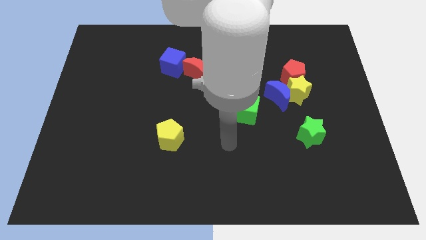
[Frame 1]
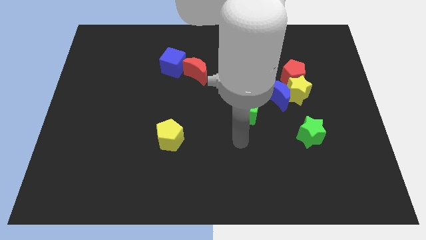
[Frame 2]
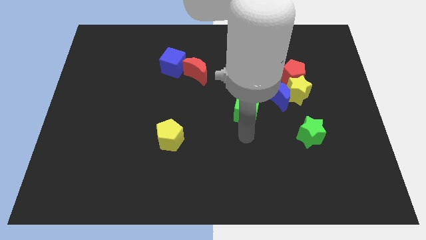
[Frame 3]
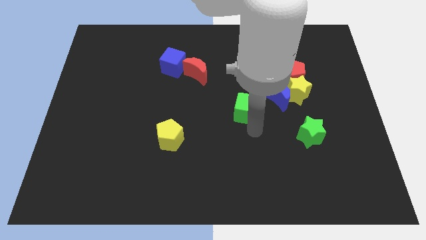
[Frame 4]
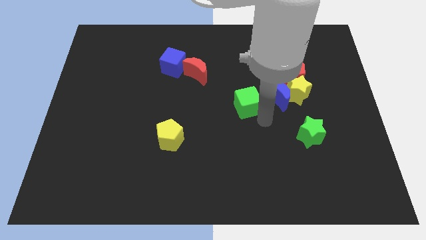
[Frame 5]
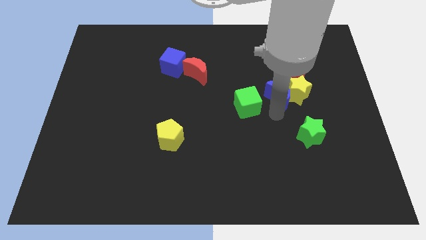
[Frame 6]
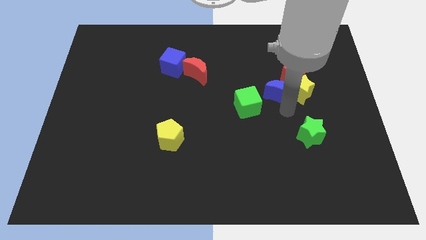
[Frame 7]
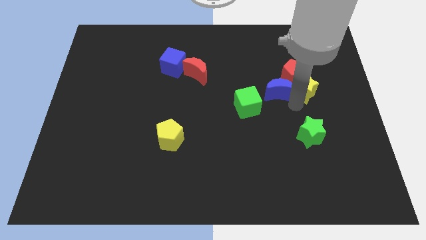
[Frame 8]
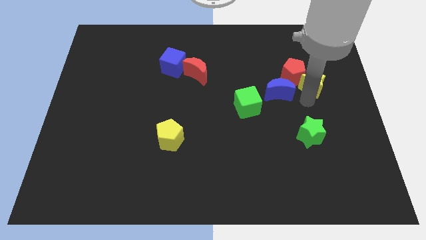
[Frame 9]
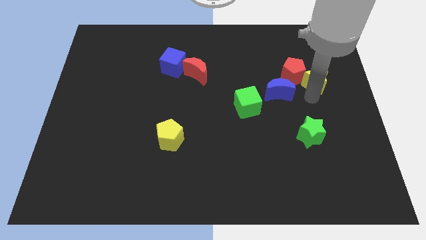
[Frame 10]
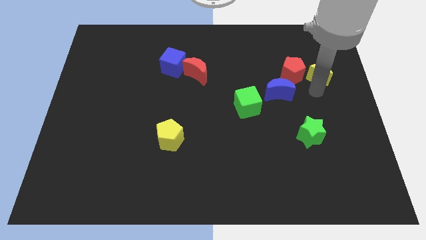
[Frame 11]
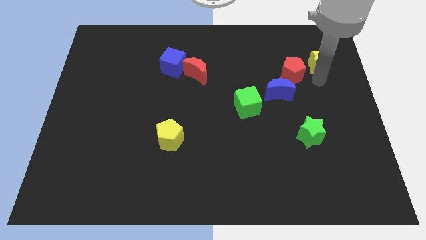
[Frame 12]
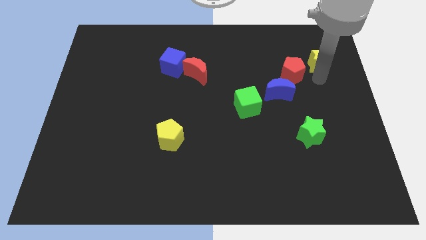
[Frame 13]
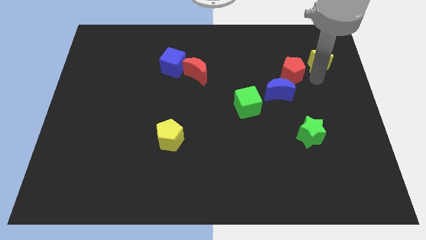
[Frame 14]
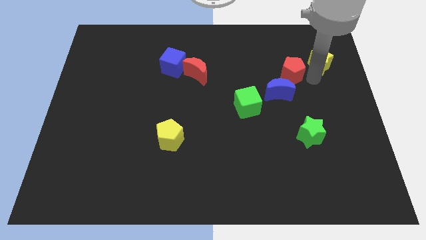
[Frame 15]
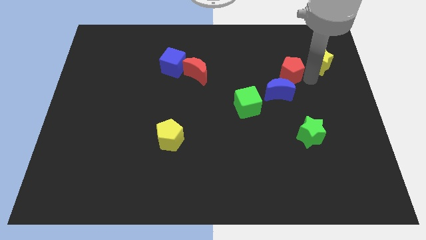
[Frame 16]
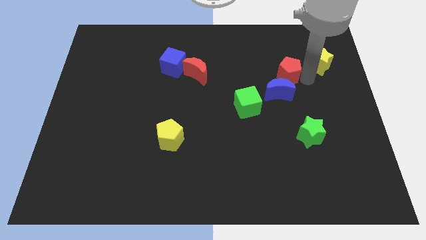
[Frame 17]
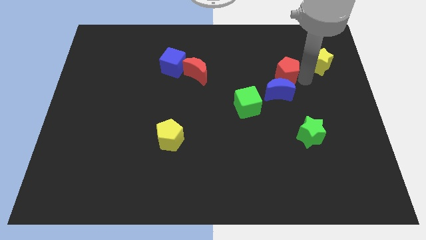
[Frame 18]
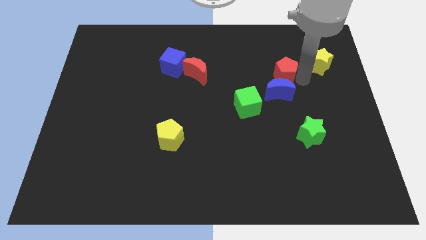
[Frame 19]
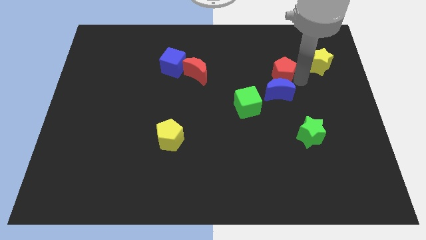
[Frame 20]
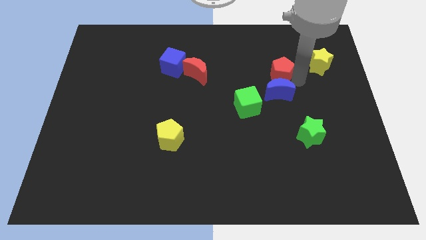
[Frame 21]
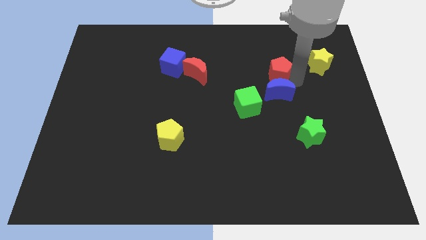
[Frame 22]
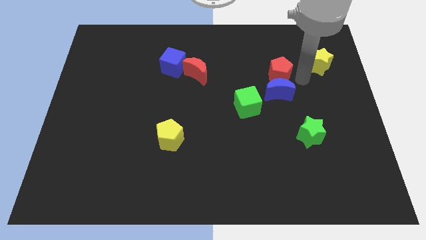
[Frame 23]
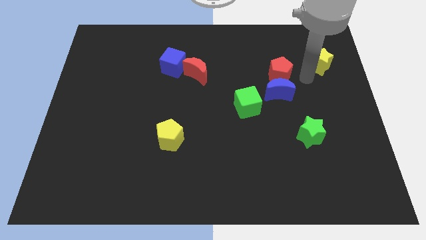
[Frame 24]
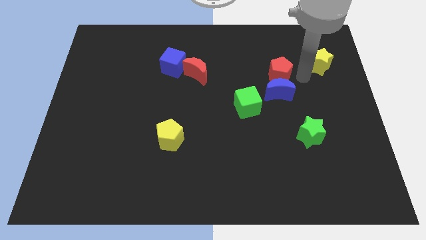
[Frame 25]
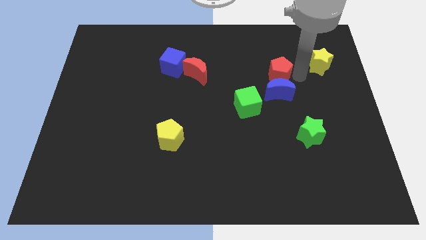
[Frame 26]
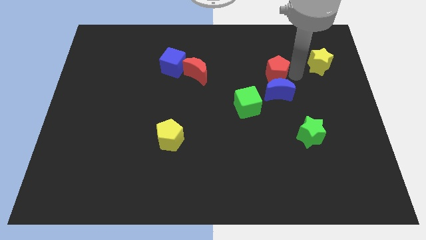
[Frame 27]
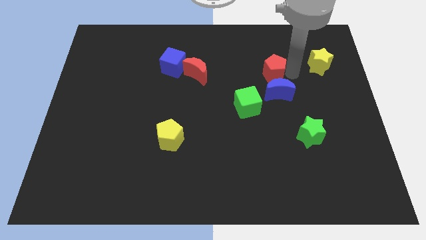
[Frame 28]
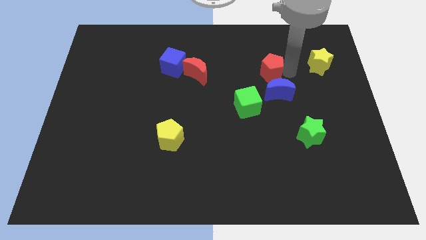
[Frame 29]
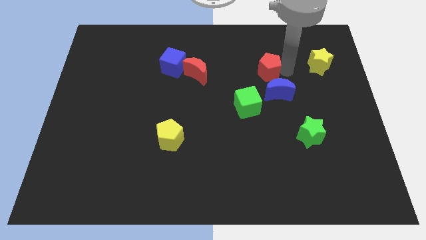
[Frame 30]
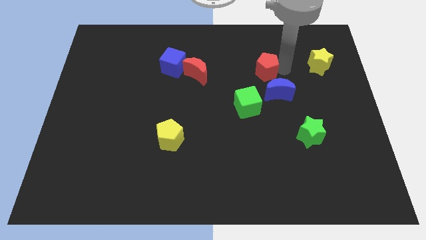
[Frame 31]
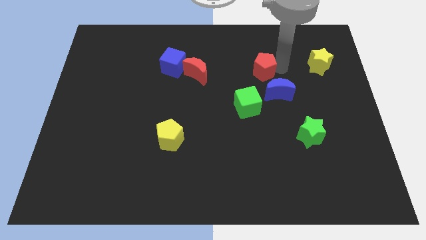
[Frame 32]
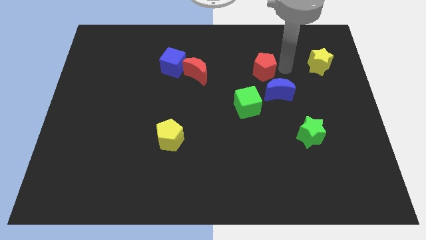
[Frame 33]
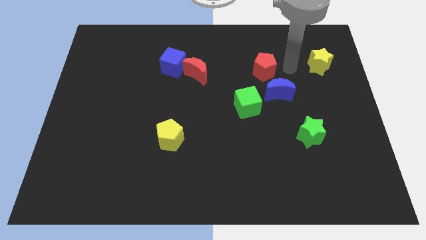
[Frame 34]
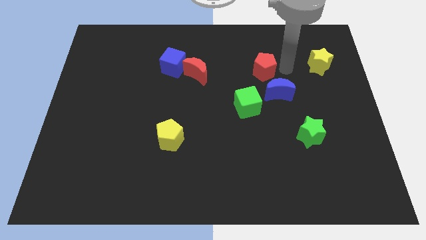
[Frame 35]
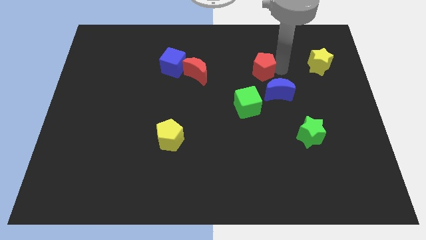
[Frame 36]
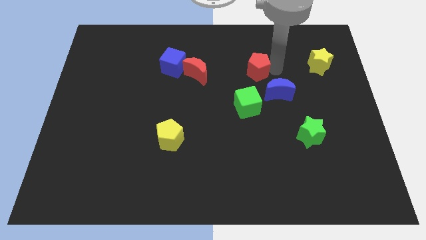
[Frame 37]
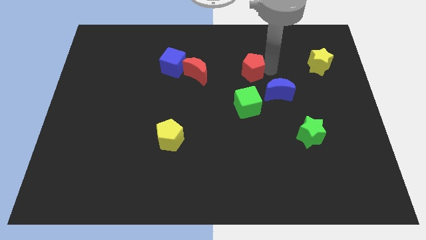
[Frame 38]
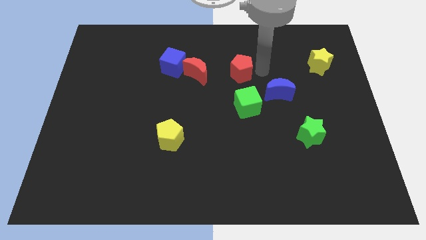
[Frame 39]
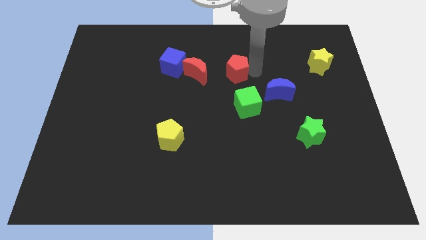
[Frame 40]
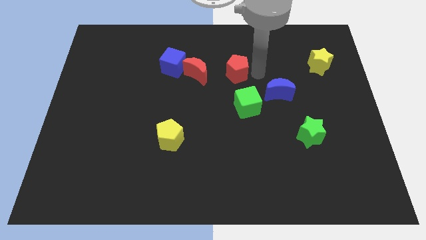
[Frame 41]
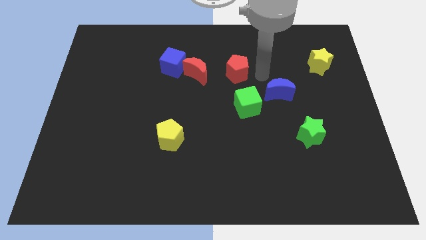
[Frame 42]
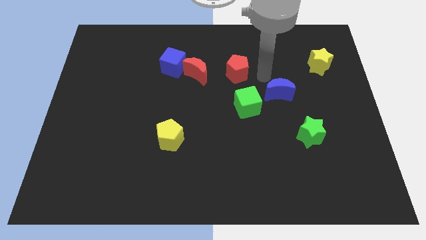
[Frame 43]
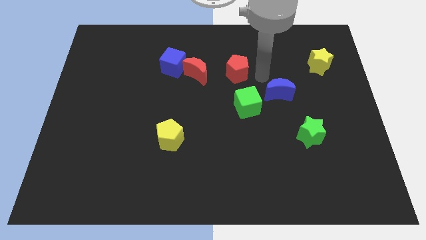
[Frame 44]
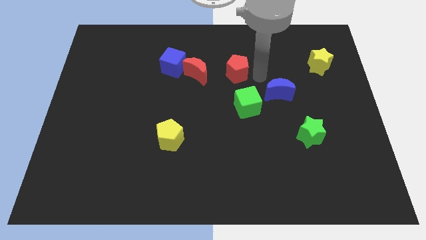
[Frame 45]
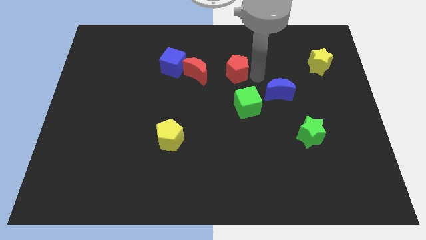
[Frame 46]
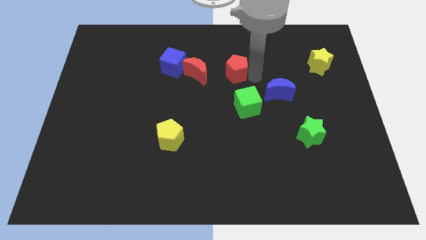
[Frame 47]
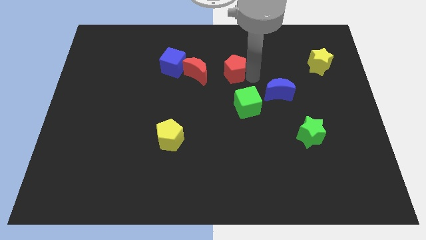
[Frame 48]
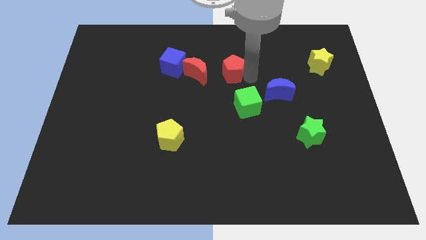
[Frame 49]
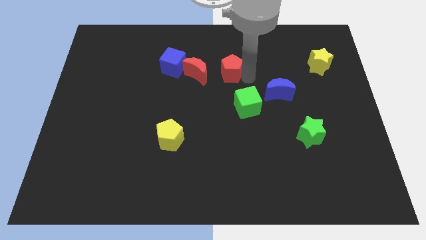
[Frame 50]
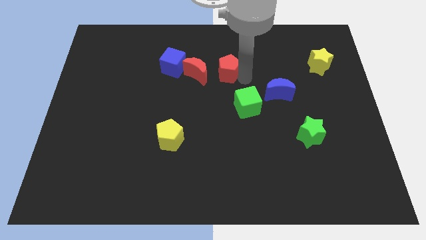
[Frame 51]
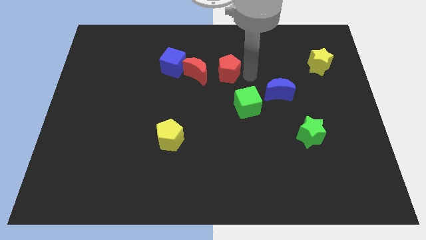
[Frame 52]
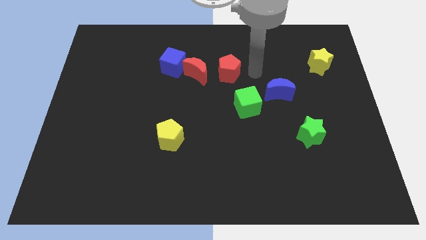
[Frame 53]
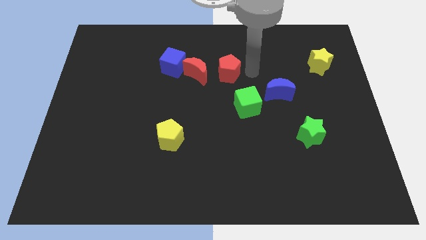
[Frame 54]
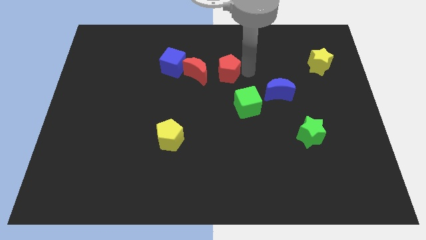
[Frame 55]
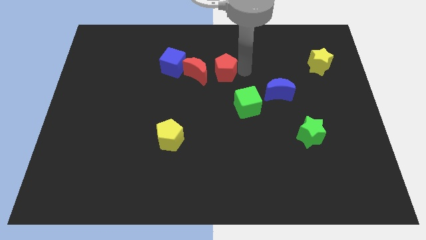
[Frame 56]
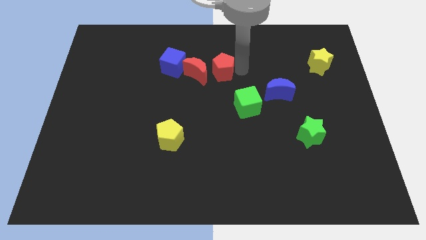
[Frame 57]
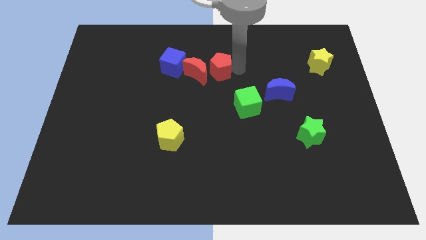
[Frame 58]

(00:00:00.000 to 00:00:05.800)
slide the red pentagon towards the red moon
